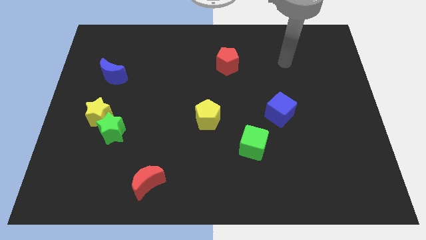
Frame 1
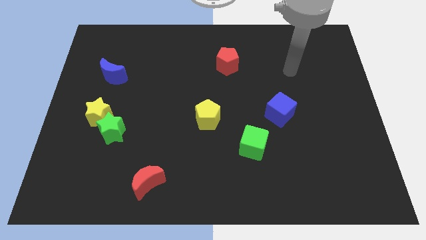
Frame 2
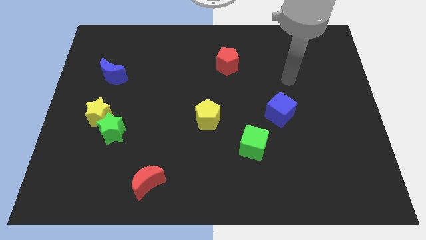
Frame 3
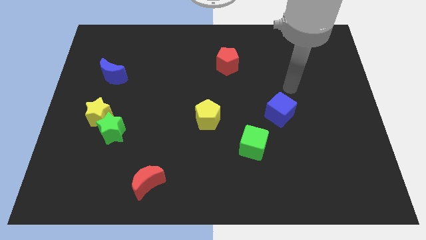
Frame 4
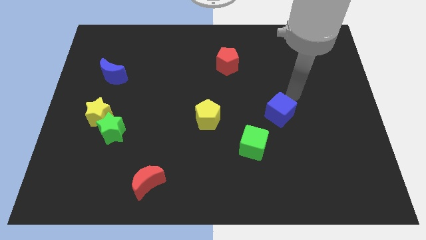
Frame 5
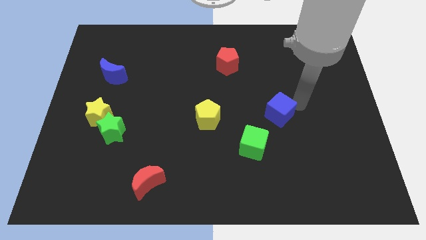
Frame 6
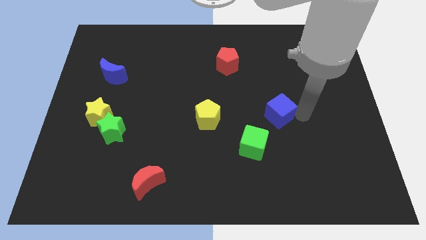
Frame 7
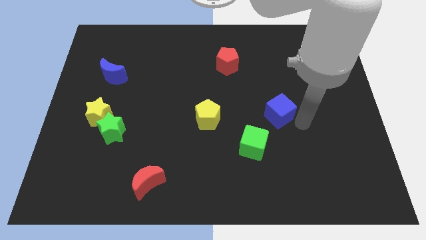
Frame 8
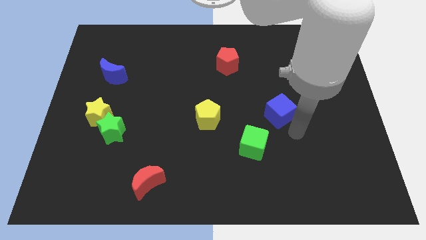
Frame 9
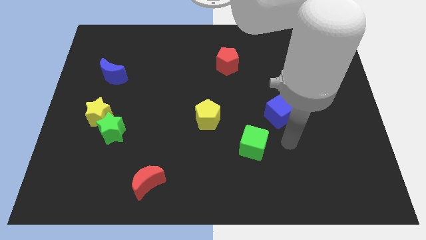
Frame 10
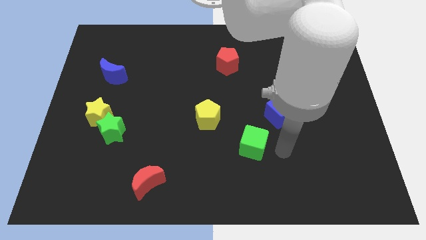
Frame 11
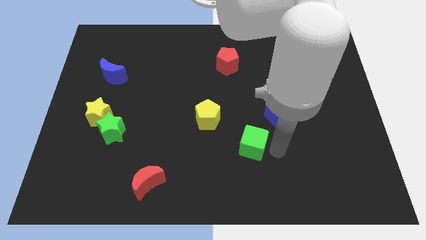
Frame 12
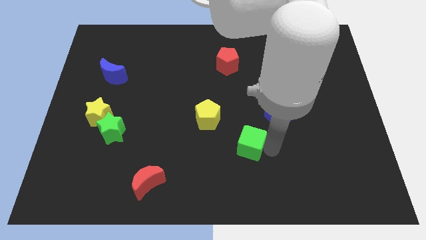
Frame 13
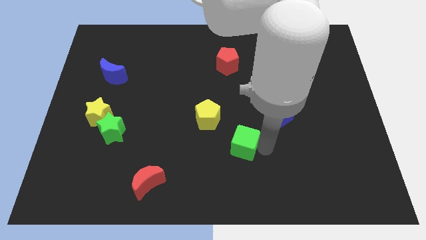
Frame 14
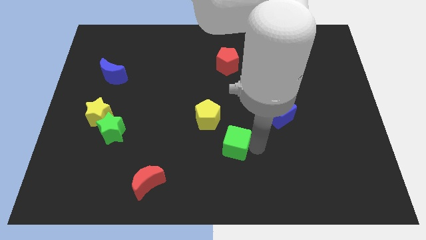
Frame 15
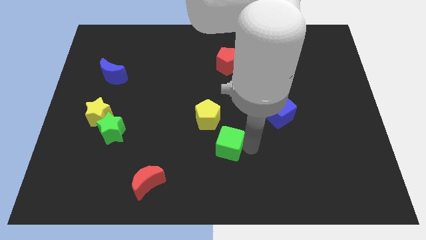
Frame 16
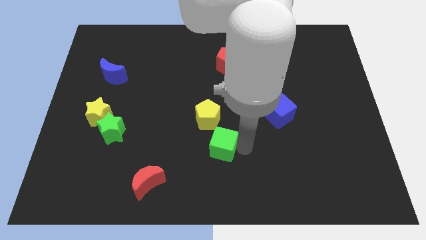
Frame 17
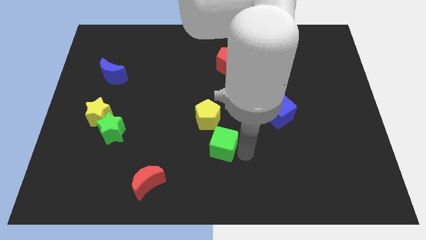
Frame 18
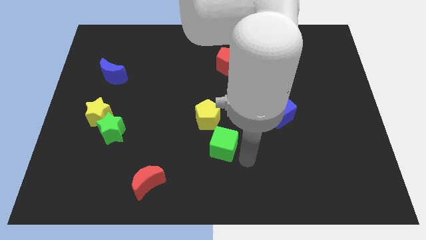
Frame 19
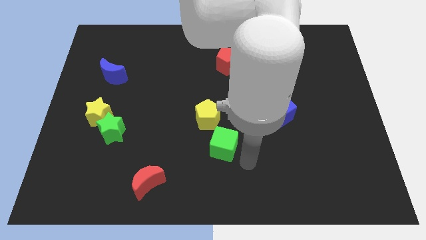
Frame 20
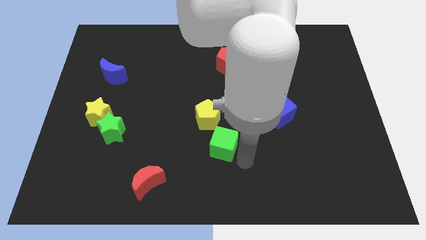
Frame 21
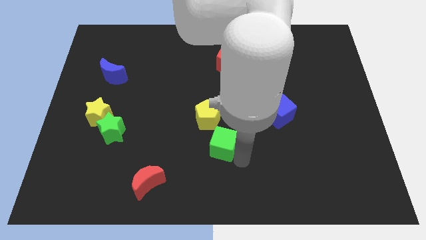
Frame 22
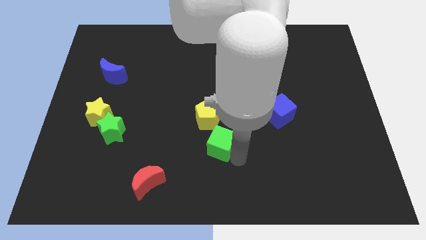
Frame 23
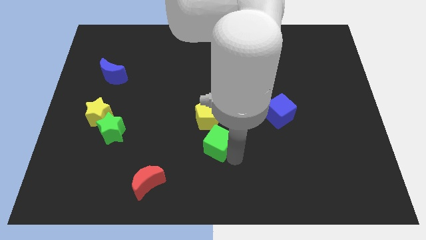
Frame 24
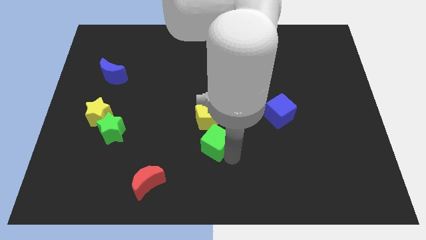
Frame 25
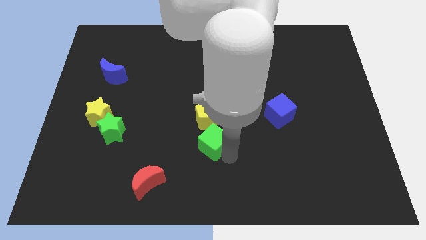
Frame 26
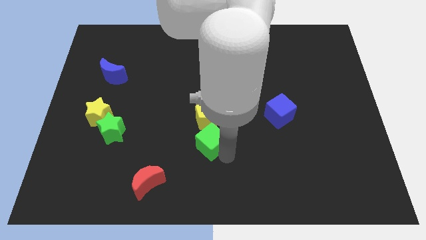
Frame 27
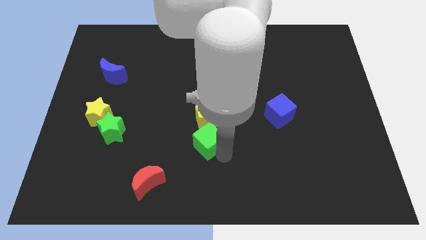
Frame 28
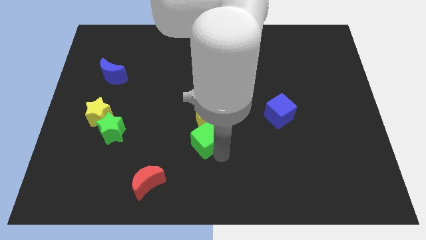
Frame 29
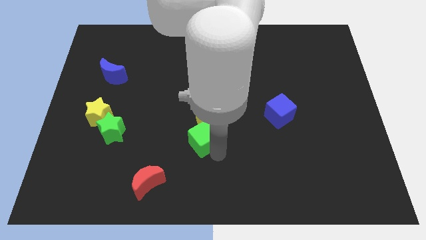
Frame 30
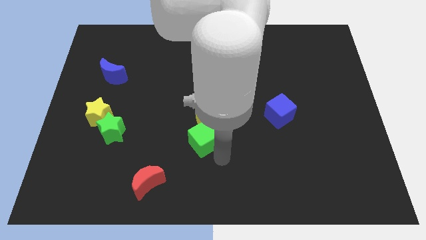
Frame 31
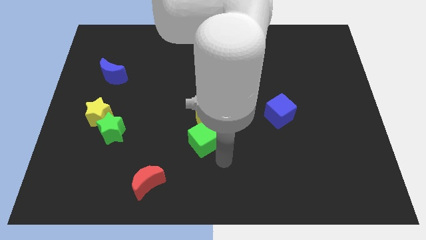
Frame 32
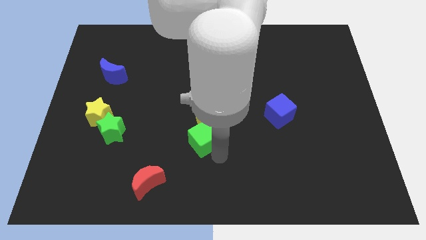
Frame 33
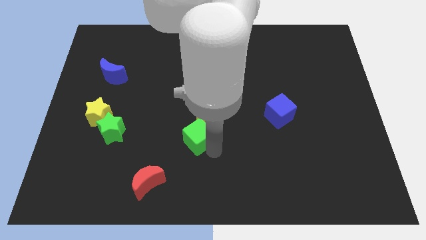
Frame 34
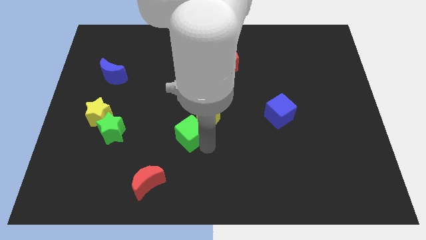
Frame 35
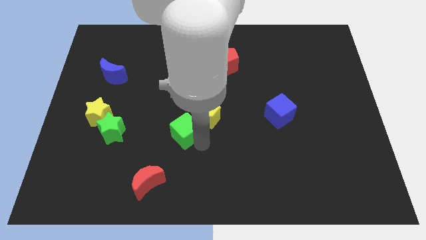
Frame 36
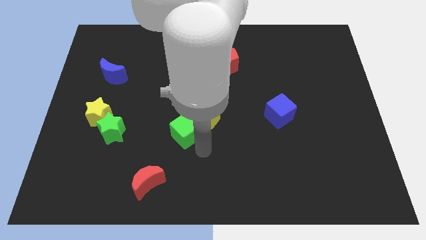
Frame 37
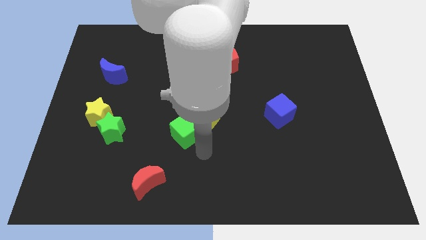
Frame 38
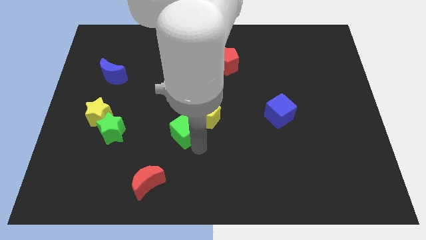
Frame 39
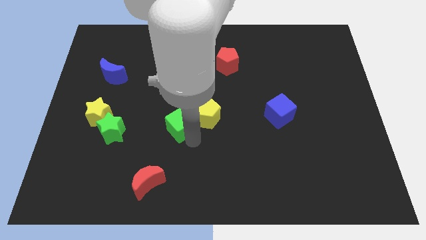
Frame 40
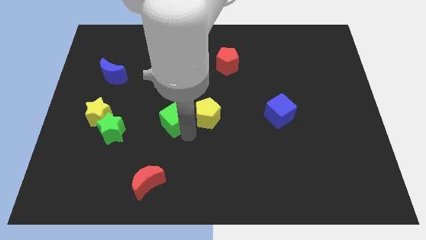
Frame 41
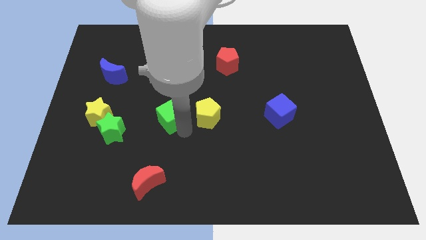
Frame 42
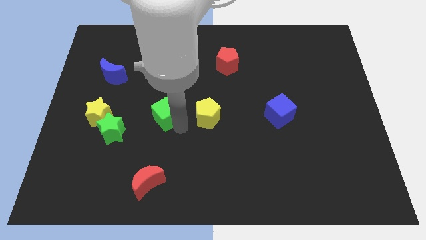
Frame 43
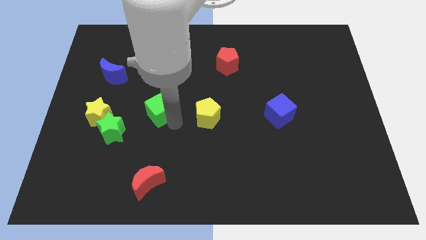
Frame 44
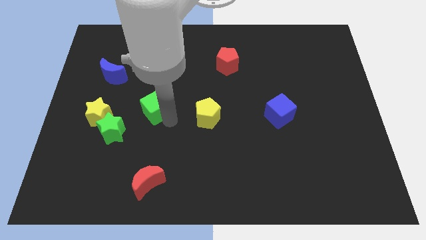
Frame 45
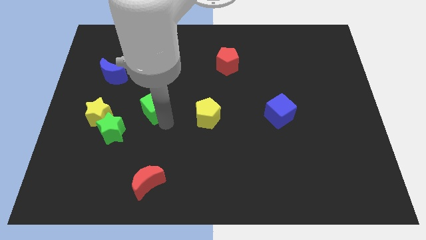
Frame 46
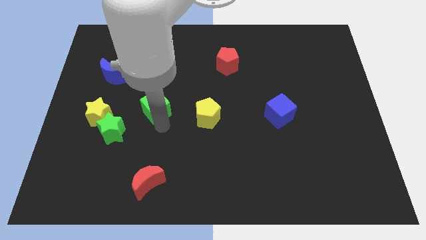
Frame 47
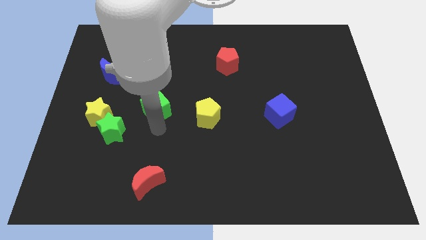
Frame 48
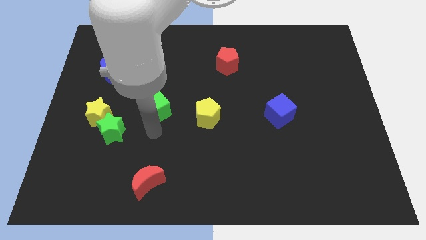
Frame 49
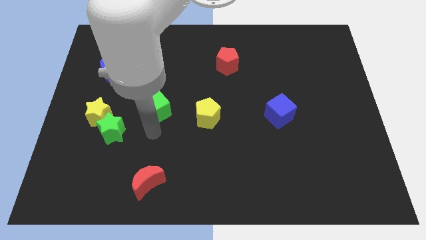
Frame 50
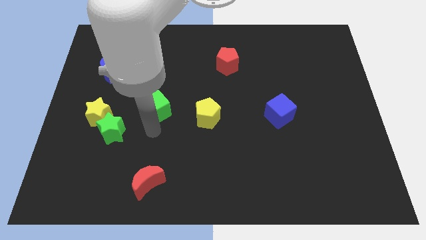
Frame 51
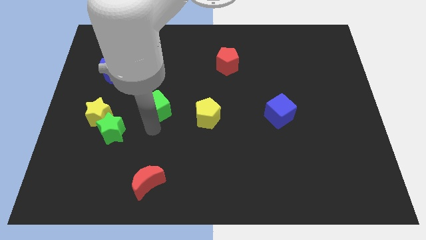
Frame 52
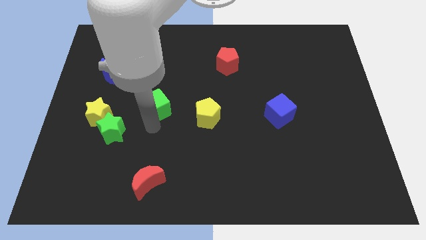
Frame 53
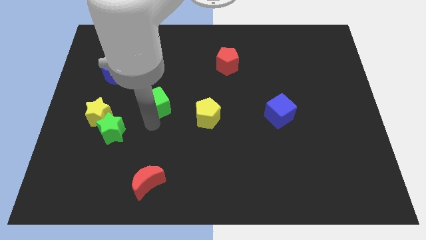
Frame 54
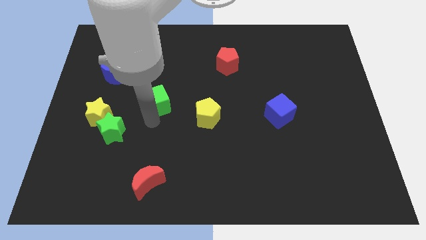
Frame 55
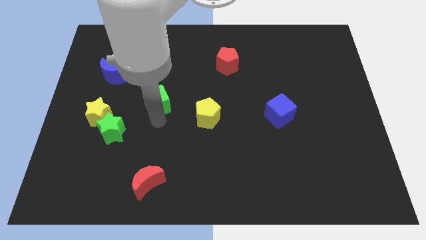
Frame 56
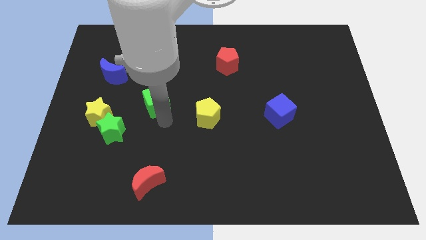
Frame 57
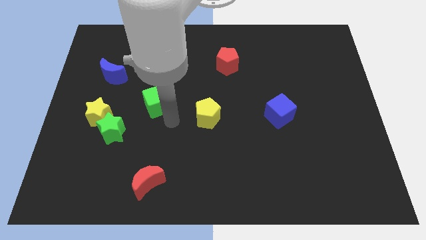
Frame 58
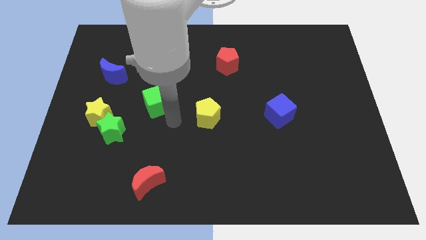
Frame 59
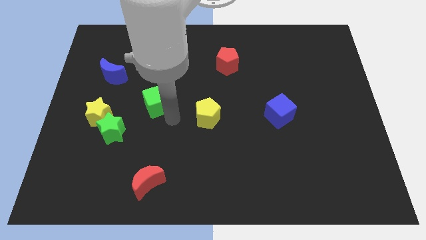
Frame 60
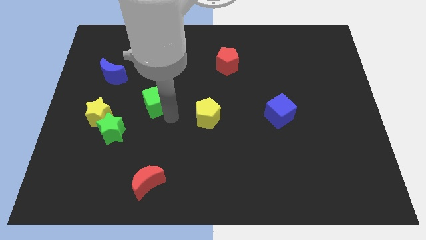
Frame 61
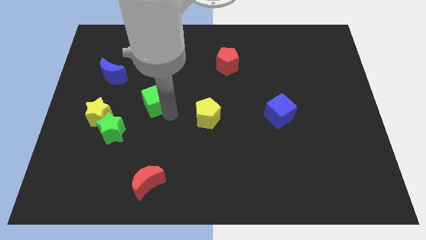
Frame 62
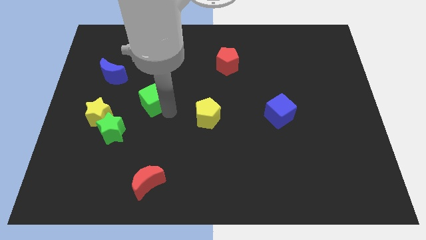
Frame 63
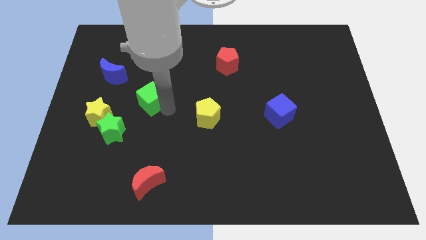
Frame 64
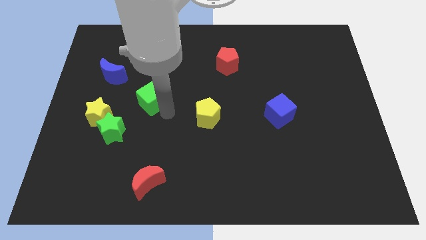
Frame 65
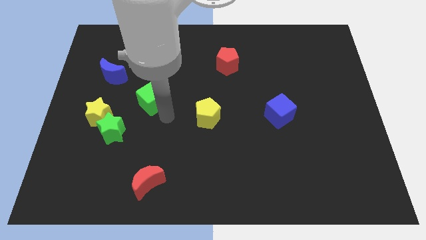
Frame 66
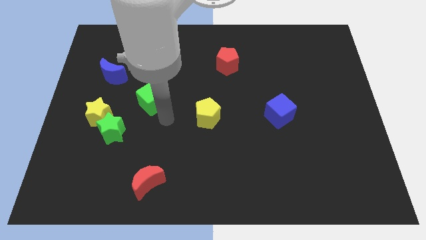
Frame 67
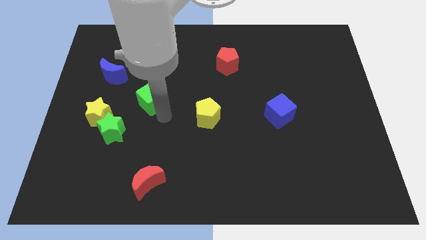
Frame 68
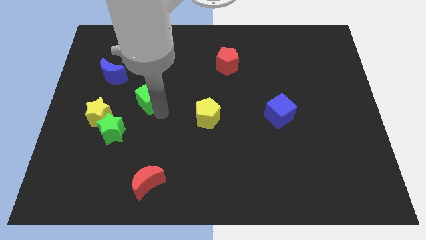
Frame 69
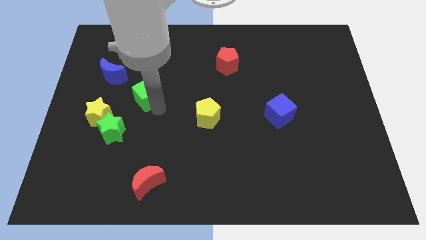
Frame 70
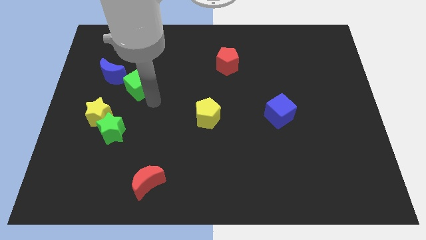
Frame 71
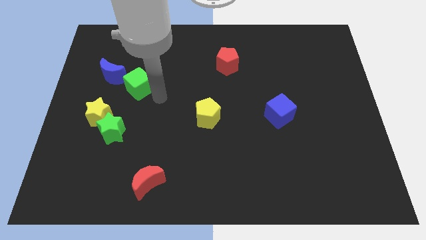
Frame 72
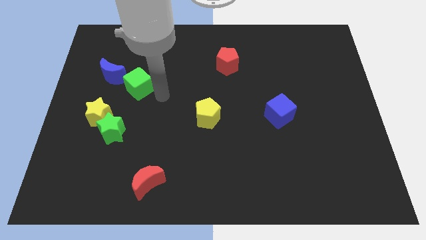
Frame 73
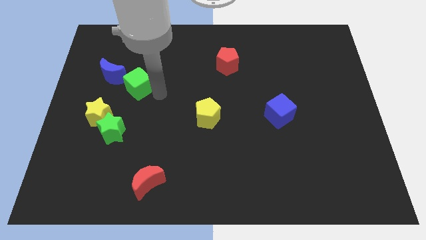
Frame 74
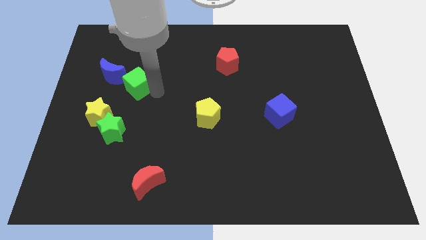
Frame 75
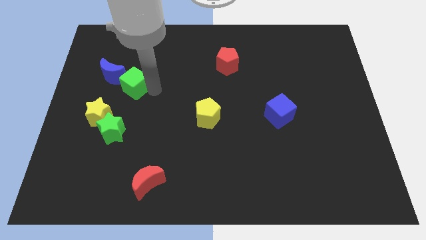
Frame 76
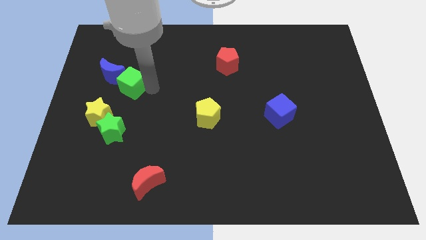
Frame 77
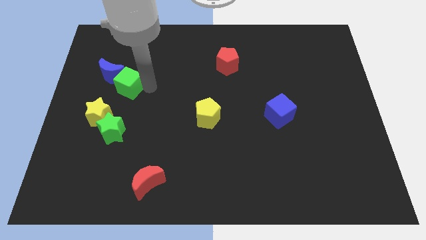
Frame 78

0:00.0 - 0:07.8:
slide the green cube next to the blue moon

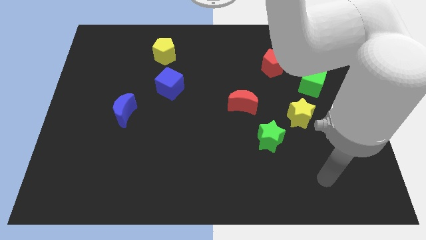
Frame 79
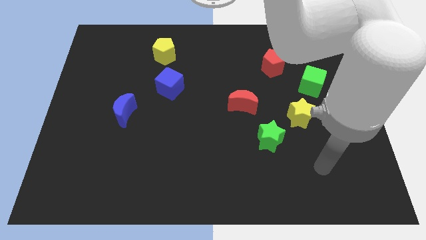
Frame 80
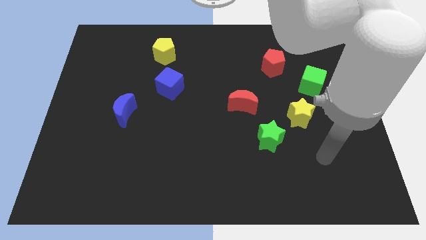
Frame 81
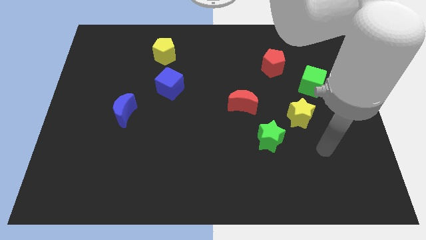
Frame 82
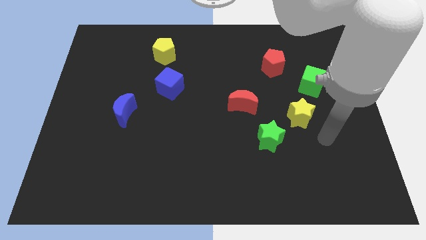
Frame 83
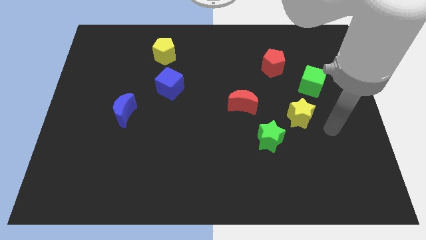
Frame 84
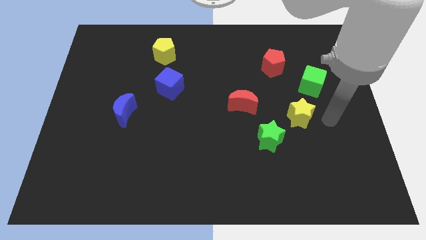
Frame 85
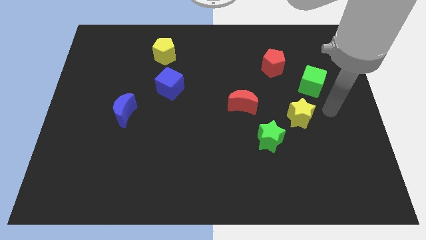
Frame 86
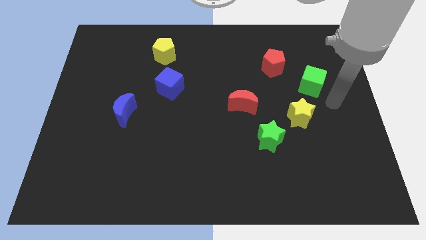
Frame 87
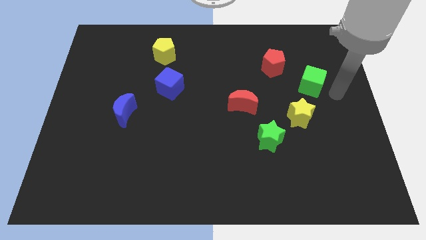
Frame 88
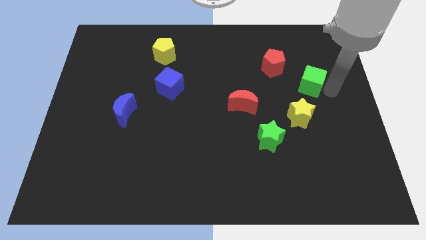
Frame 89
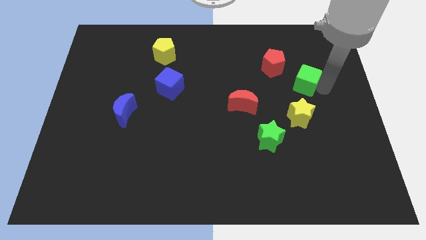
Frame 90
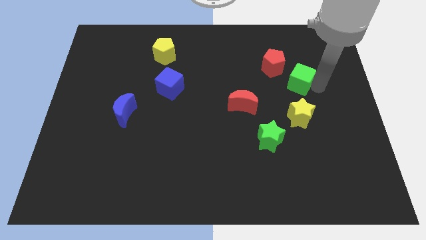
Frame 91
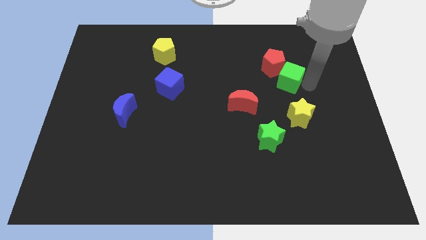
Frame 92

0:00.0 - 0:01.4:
push the green cube next to the red pentagon
